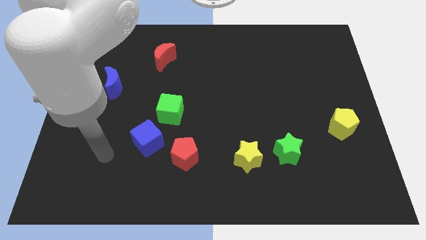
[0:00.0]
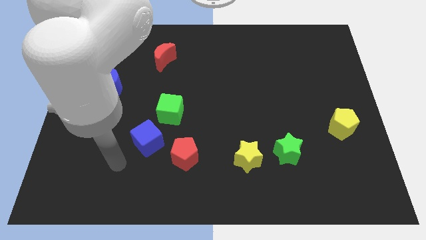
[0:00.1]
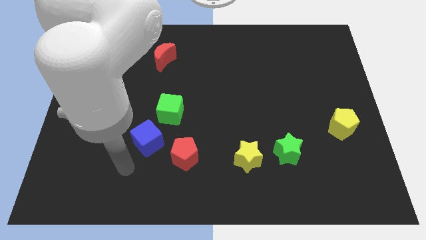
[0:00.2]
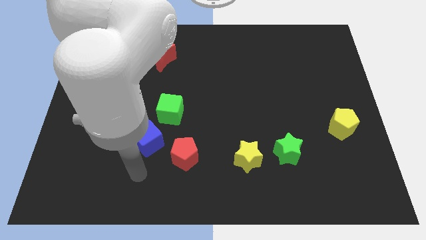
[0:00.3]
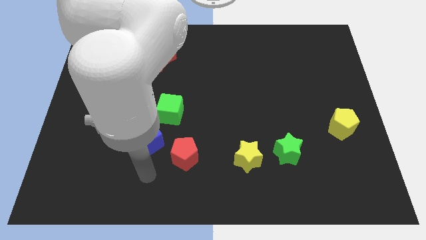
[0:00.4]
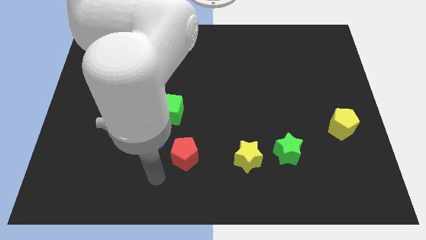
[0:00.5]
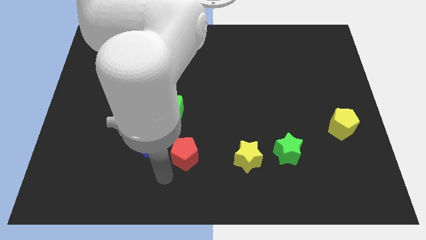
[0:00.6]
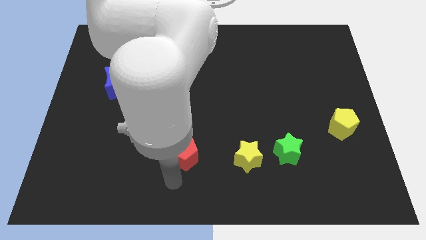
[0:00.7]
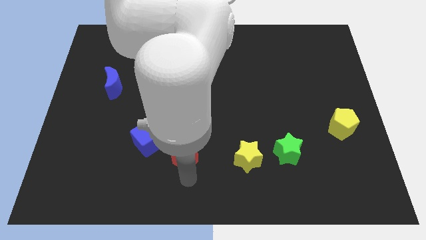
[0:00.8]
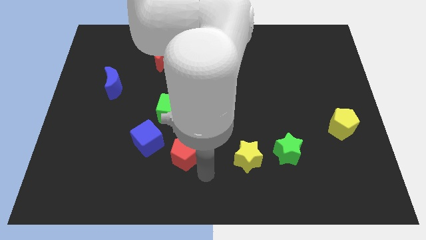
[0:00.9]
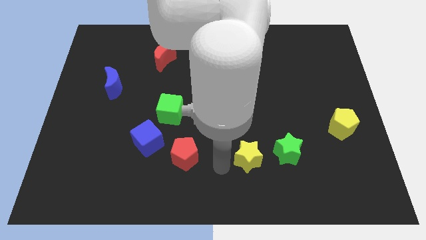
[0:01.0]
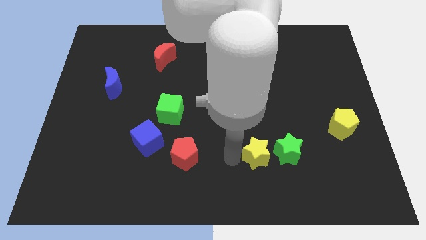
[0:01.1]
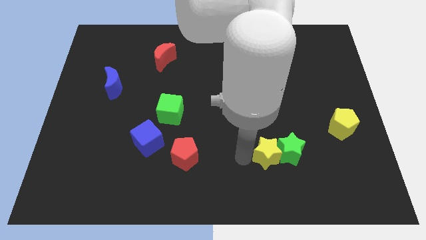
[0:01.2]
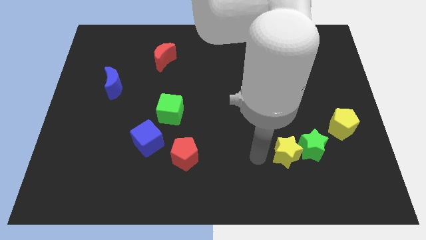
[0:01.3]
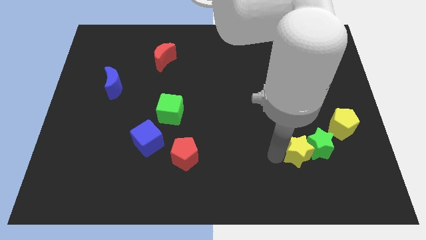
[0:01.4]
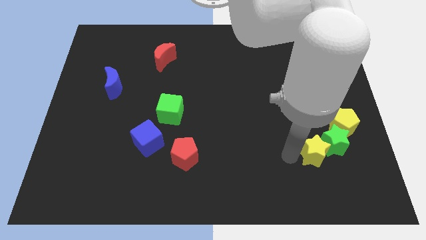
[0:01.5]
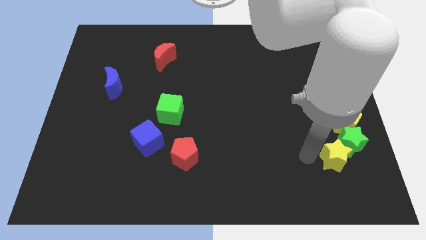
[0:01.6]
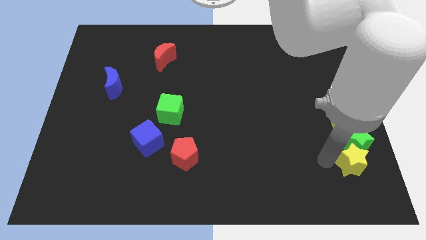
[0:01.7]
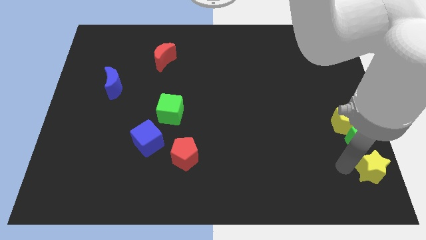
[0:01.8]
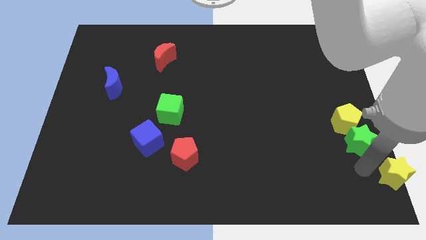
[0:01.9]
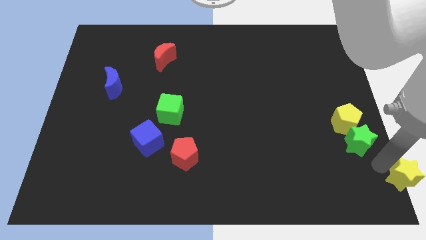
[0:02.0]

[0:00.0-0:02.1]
pull the green star apart from the yellow star

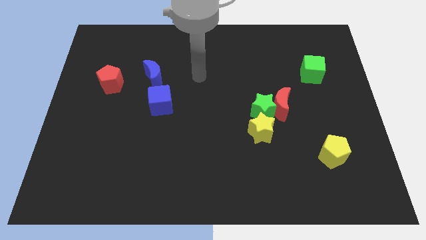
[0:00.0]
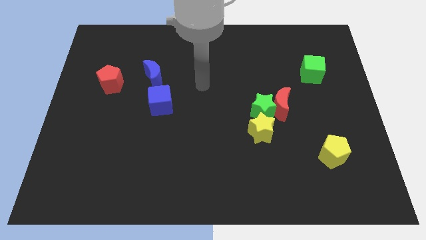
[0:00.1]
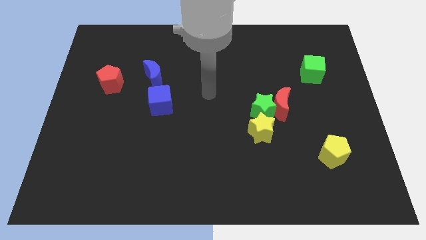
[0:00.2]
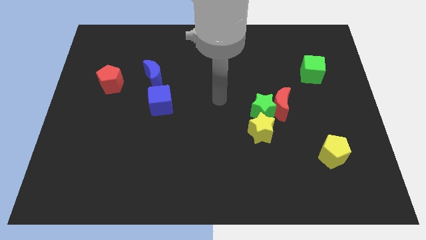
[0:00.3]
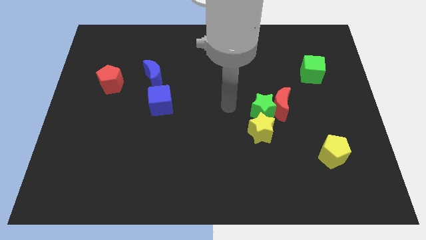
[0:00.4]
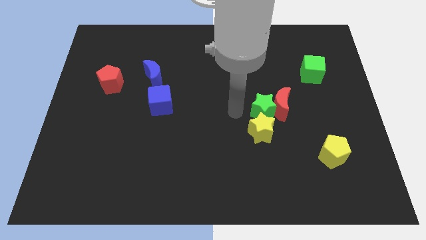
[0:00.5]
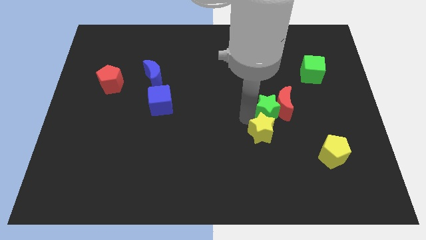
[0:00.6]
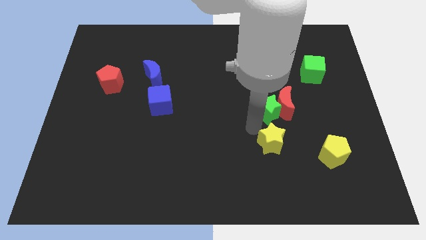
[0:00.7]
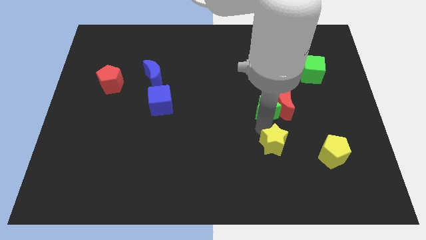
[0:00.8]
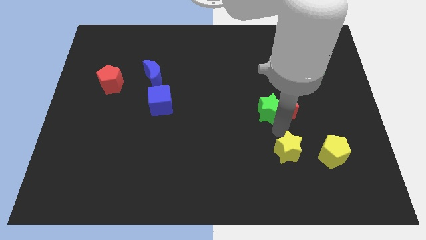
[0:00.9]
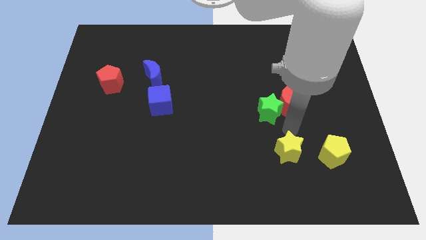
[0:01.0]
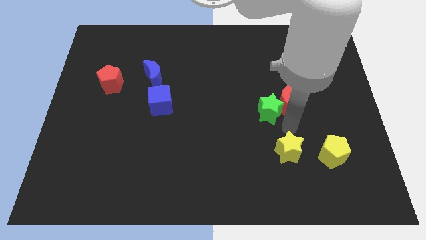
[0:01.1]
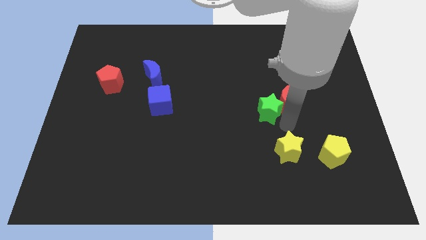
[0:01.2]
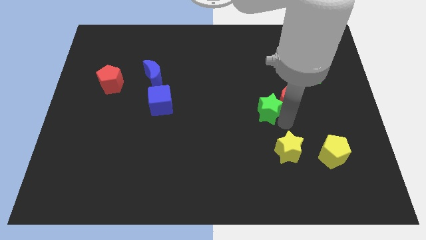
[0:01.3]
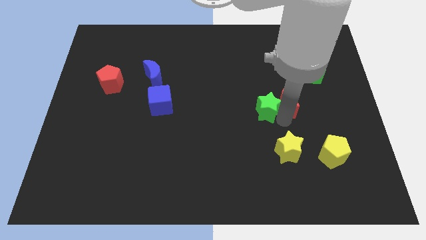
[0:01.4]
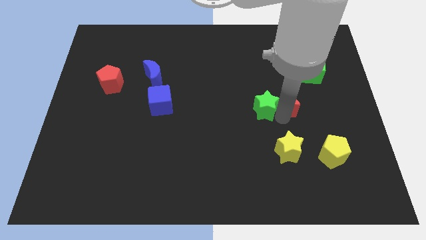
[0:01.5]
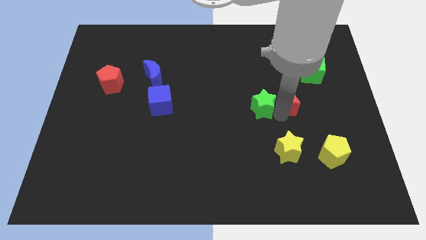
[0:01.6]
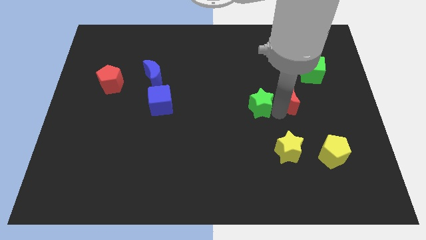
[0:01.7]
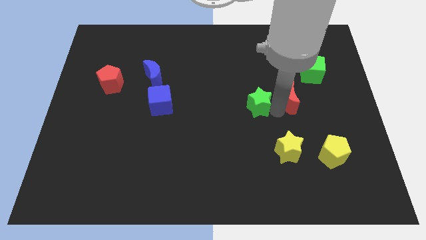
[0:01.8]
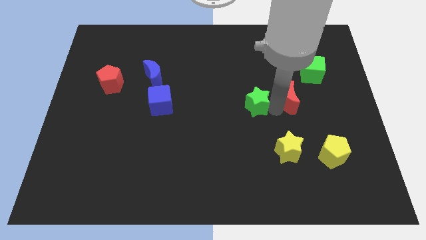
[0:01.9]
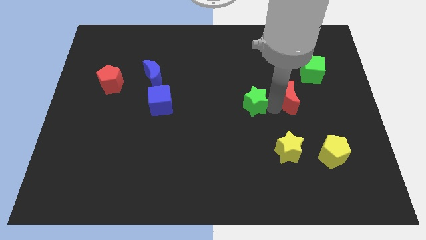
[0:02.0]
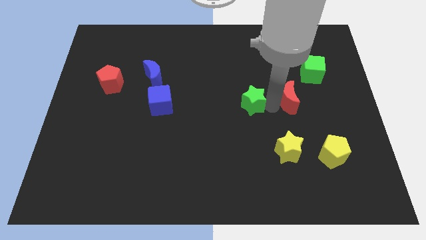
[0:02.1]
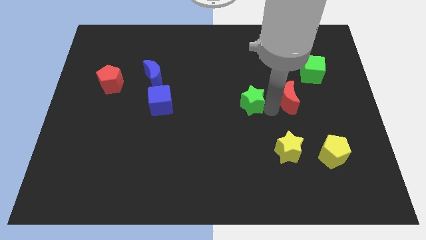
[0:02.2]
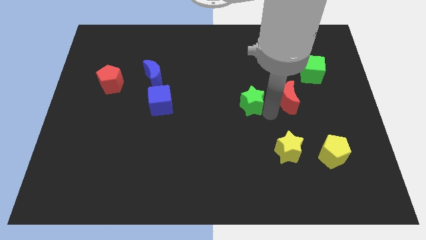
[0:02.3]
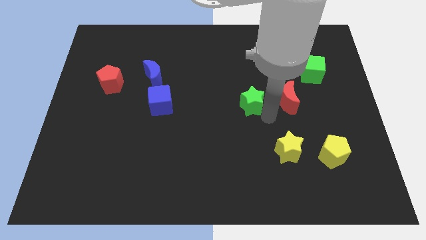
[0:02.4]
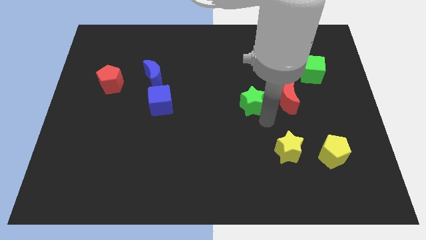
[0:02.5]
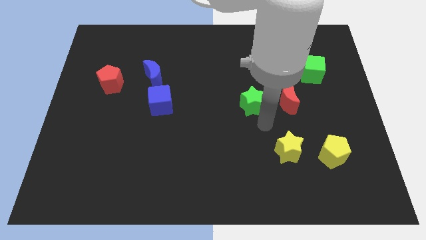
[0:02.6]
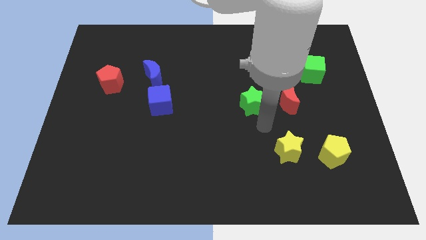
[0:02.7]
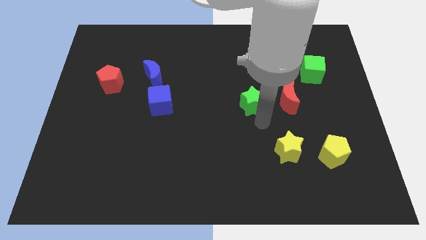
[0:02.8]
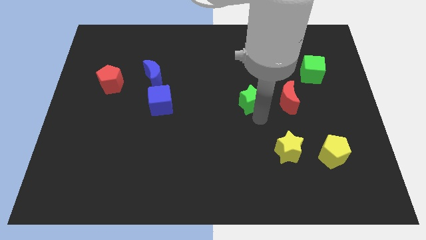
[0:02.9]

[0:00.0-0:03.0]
move the green star away from the red moon and yellow star

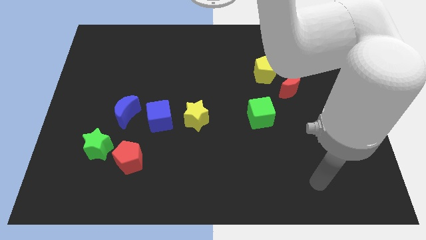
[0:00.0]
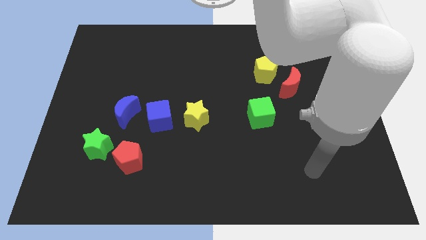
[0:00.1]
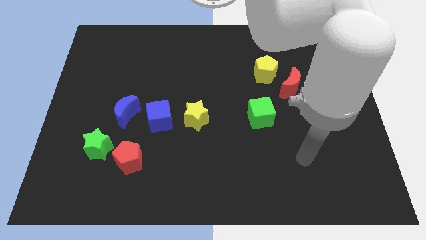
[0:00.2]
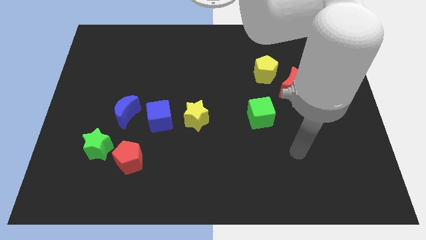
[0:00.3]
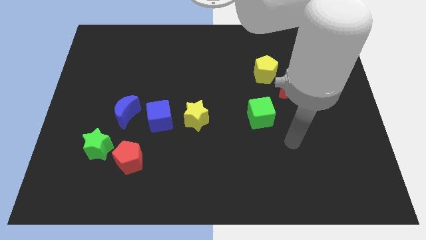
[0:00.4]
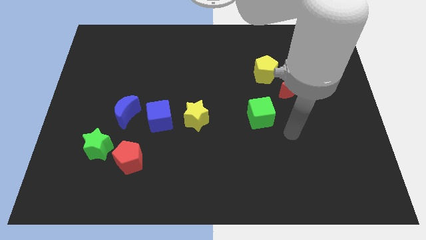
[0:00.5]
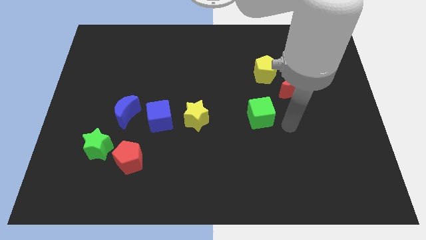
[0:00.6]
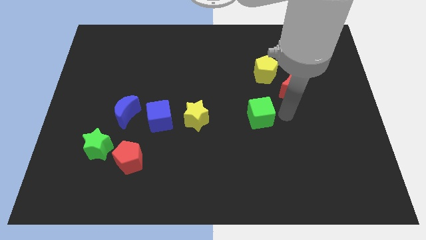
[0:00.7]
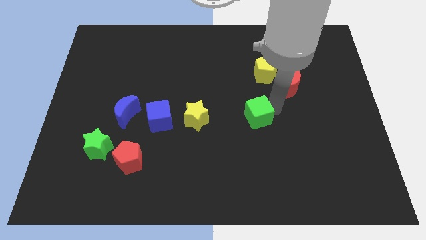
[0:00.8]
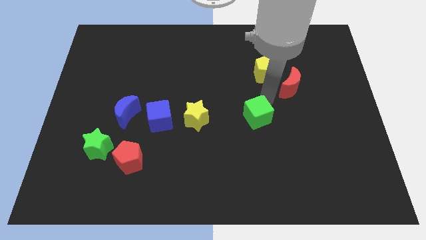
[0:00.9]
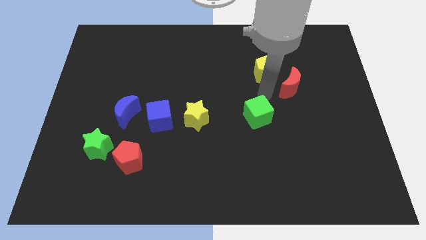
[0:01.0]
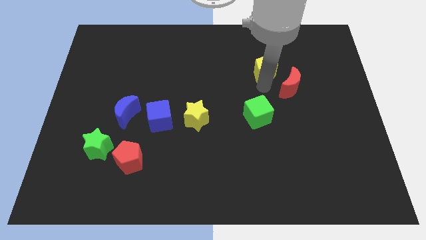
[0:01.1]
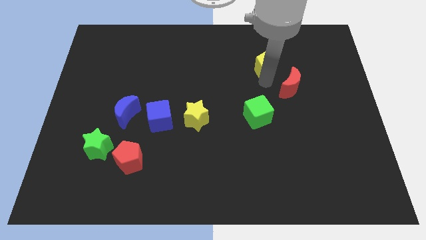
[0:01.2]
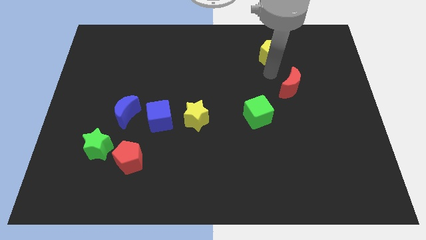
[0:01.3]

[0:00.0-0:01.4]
separate the red moon from the yellow pentagon

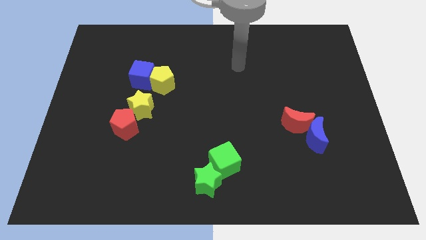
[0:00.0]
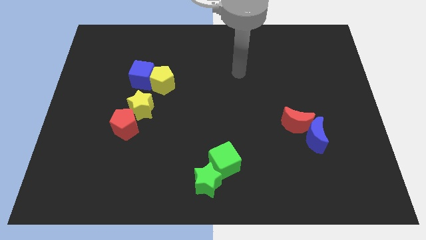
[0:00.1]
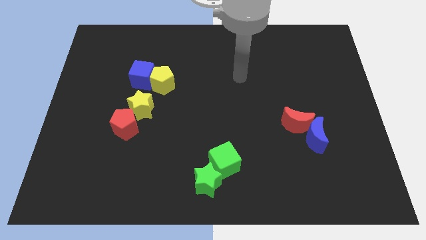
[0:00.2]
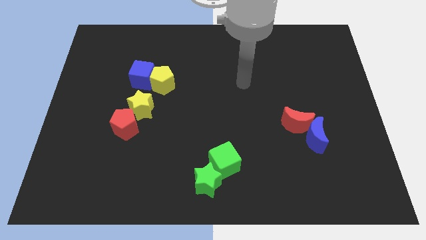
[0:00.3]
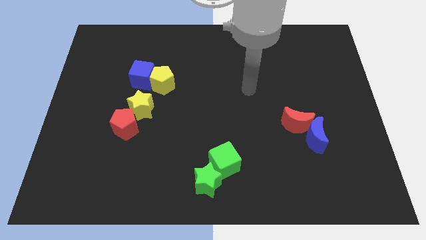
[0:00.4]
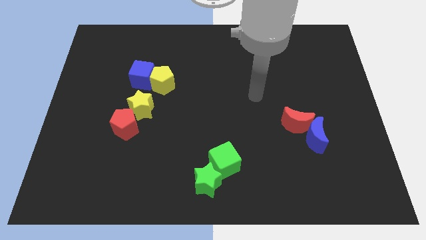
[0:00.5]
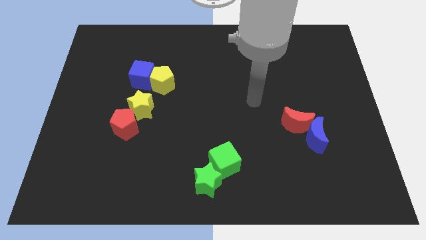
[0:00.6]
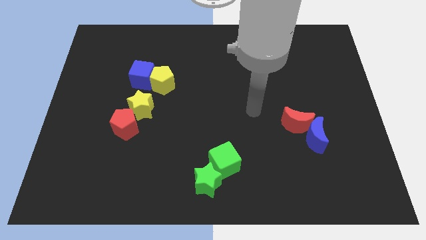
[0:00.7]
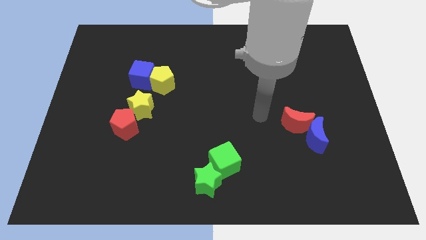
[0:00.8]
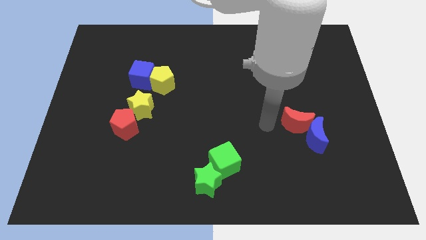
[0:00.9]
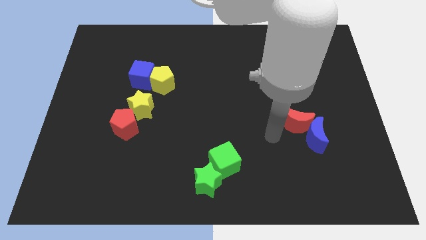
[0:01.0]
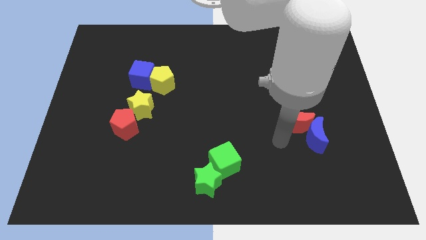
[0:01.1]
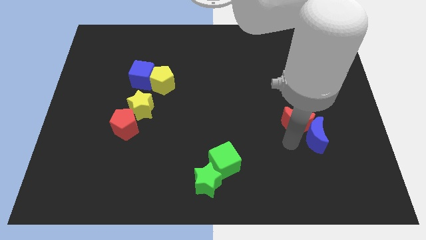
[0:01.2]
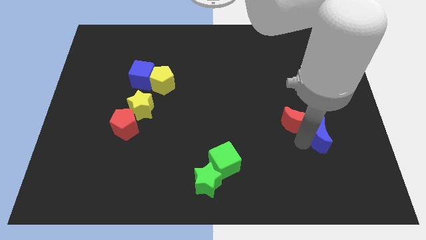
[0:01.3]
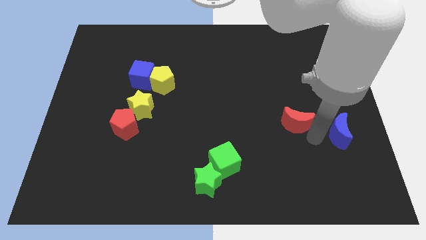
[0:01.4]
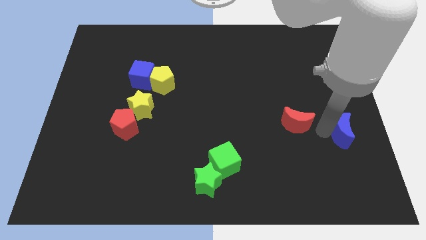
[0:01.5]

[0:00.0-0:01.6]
move the red moon away from the blue moon

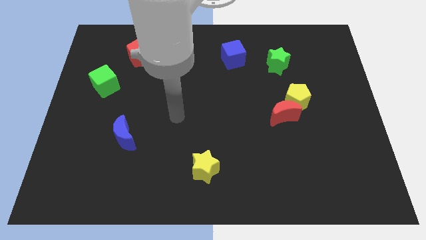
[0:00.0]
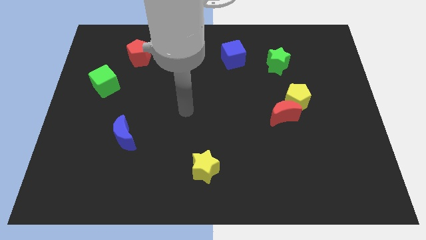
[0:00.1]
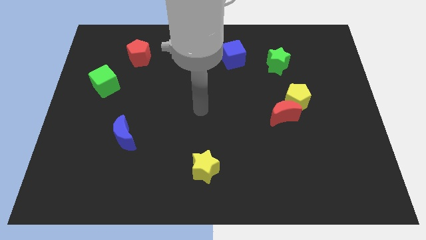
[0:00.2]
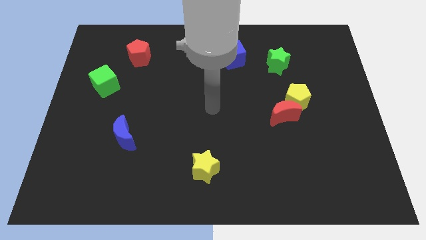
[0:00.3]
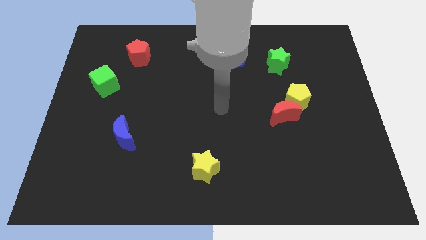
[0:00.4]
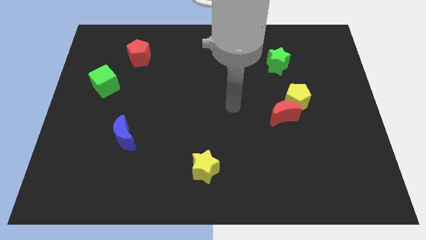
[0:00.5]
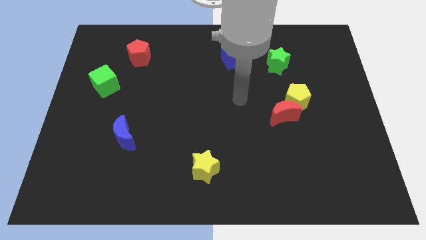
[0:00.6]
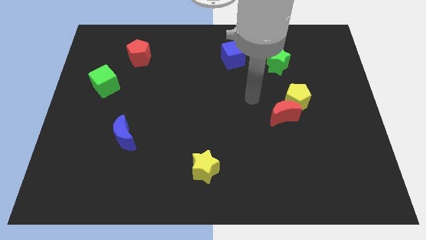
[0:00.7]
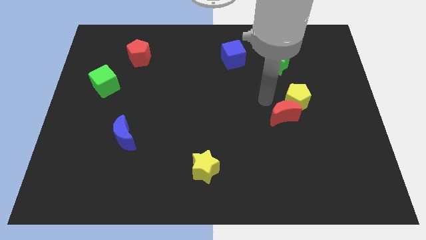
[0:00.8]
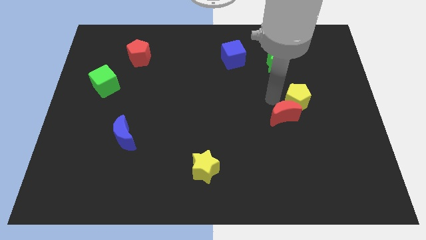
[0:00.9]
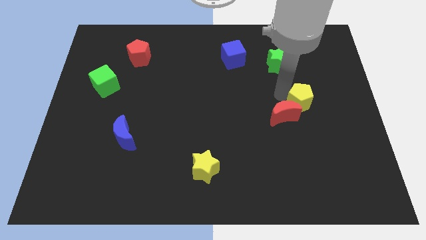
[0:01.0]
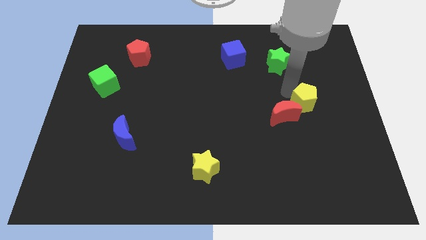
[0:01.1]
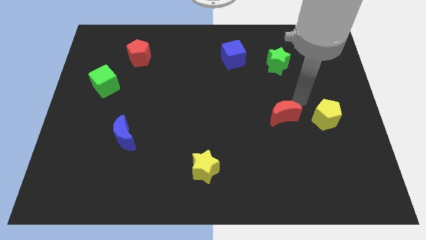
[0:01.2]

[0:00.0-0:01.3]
move the red moon away from the yellow pentagon
